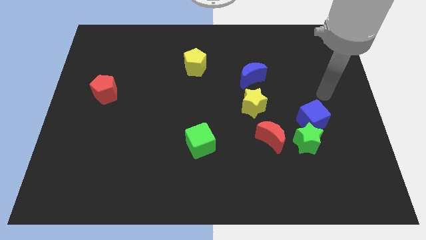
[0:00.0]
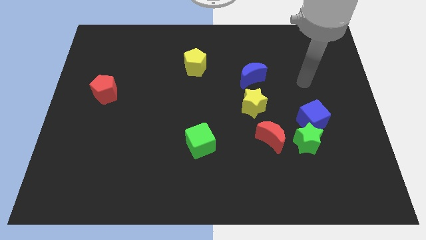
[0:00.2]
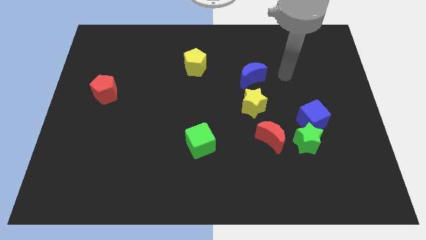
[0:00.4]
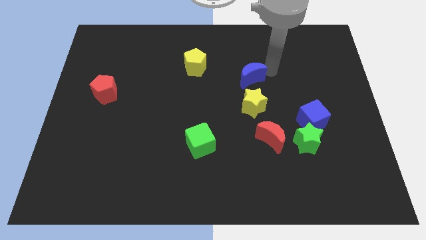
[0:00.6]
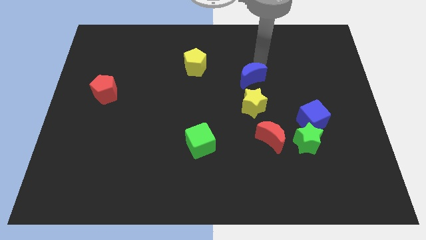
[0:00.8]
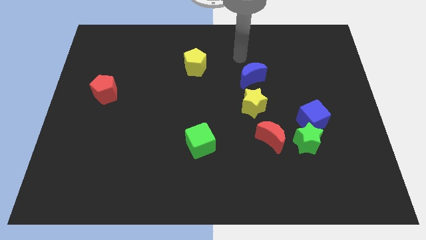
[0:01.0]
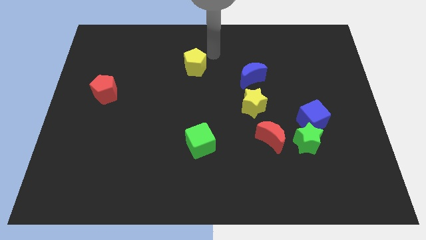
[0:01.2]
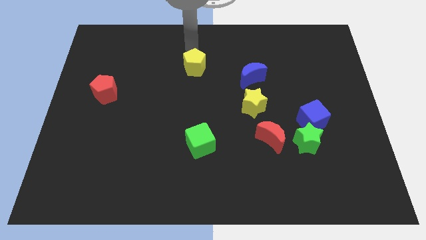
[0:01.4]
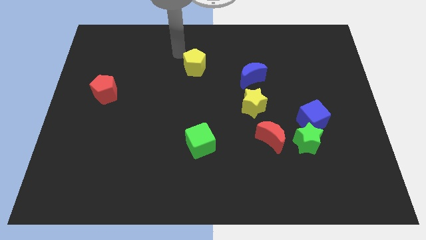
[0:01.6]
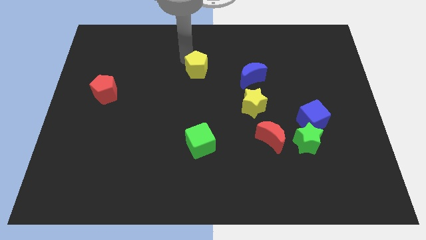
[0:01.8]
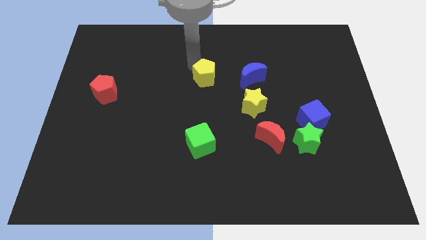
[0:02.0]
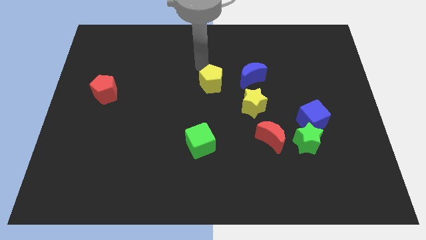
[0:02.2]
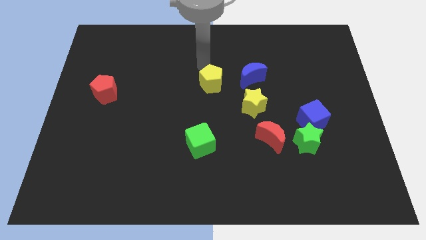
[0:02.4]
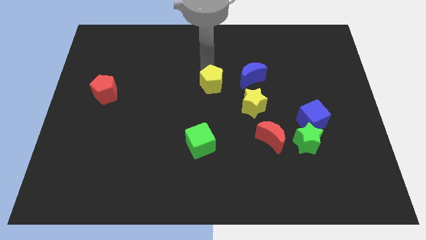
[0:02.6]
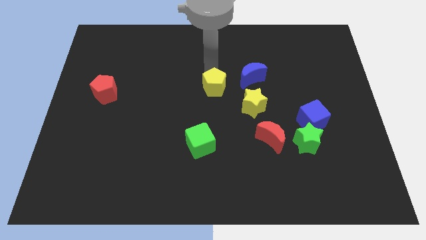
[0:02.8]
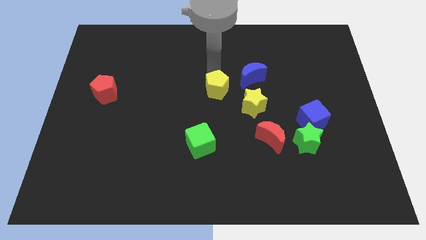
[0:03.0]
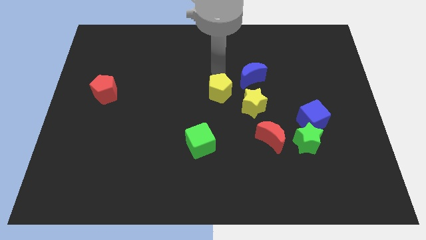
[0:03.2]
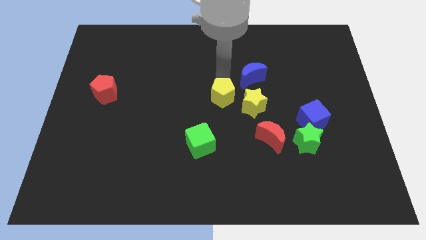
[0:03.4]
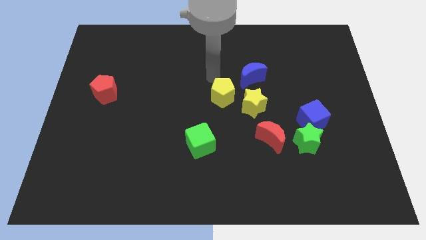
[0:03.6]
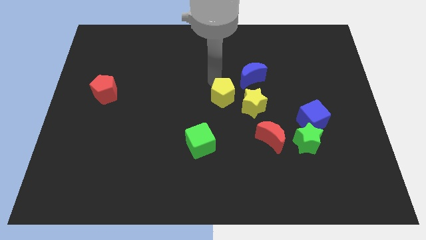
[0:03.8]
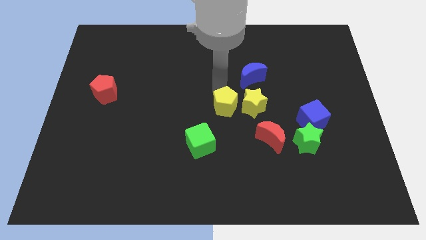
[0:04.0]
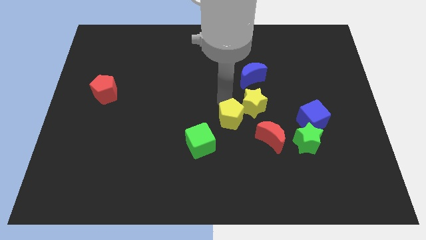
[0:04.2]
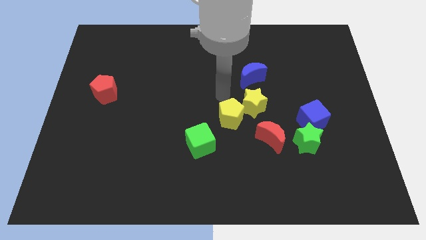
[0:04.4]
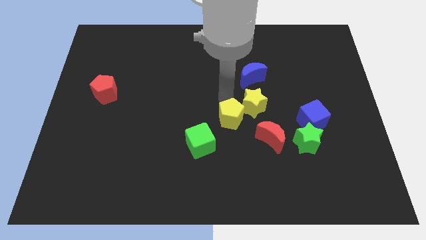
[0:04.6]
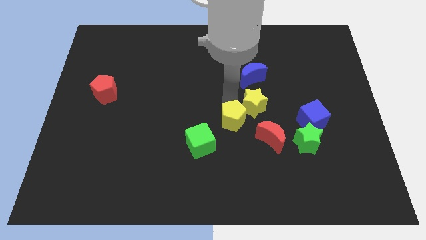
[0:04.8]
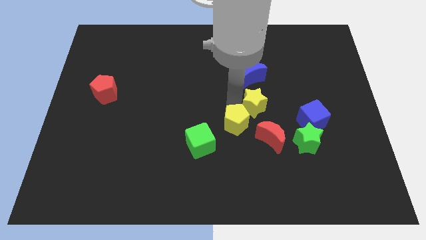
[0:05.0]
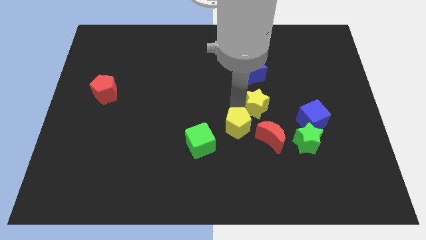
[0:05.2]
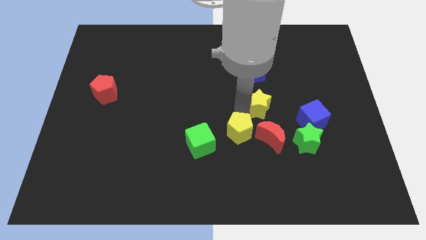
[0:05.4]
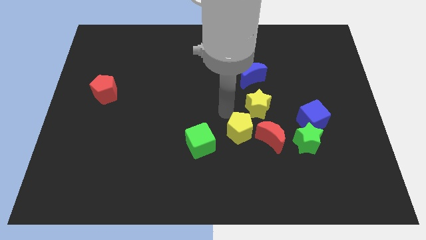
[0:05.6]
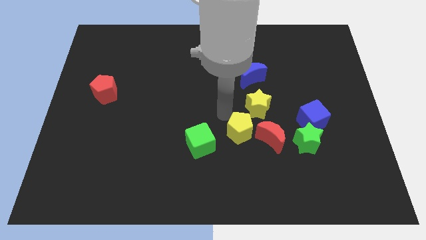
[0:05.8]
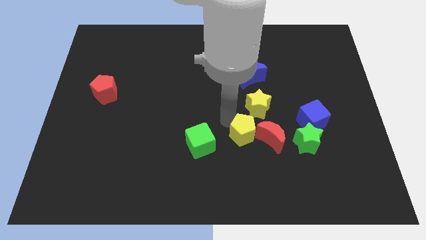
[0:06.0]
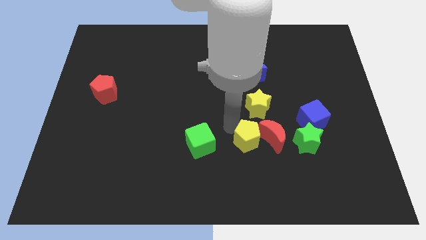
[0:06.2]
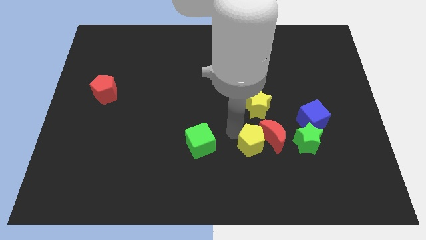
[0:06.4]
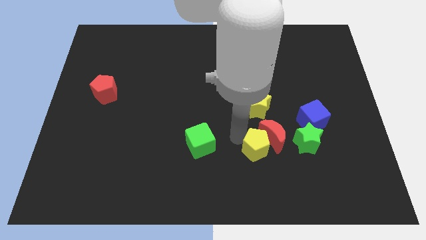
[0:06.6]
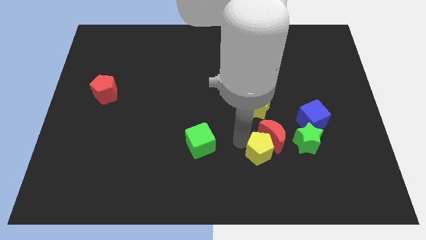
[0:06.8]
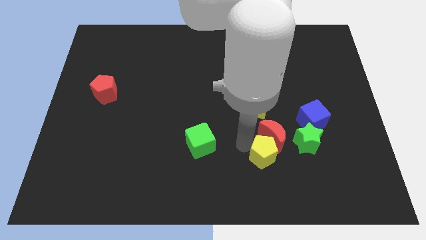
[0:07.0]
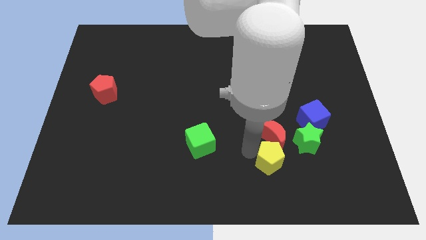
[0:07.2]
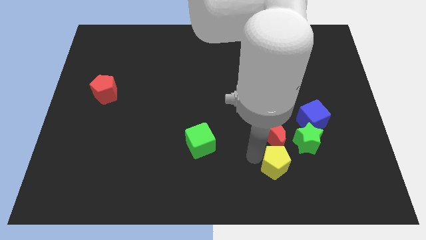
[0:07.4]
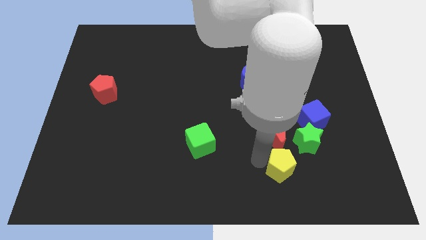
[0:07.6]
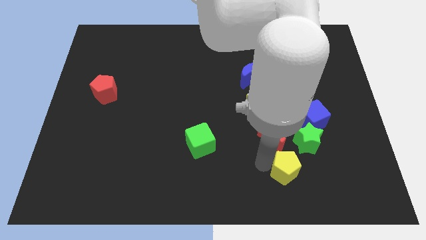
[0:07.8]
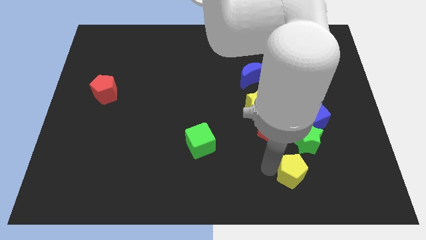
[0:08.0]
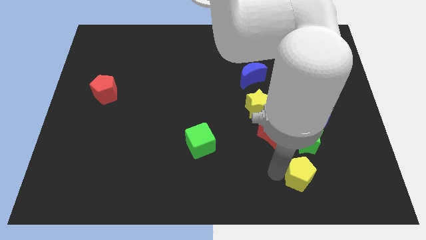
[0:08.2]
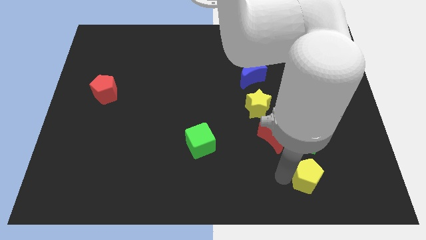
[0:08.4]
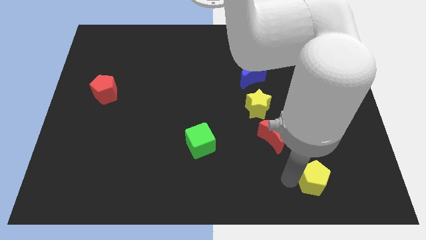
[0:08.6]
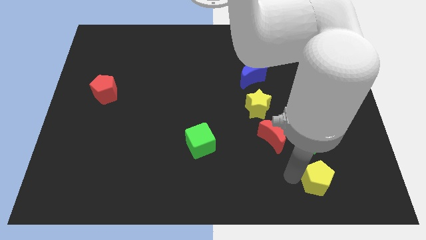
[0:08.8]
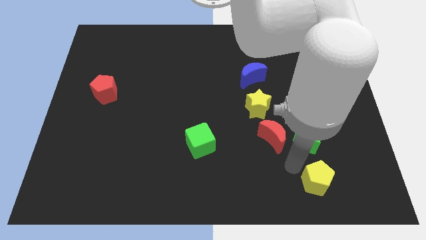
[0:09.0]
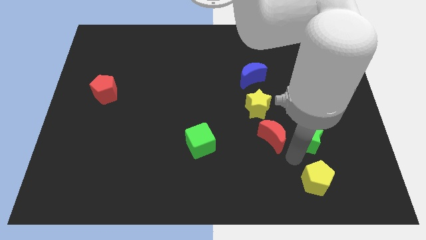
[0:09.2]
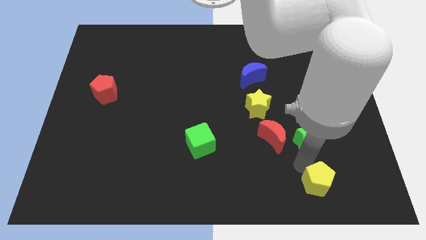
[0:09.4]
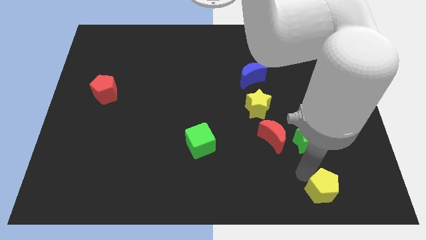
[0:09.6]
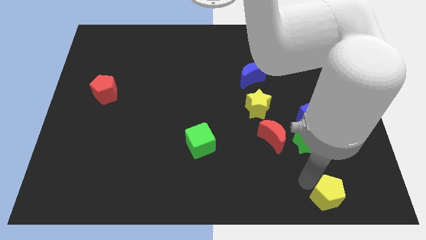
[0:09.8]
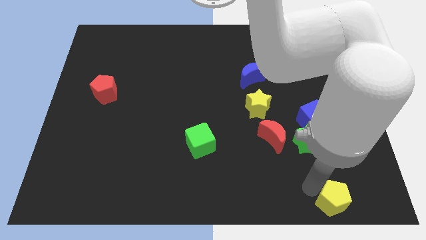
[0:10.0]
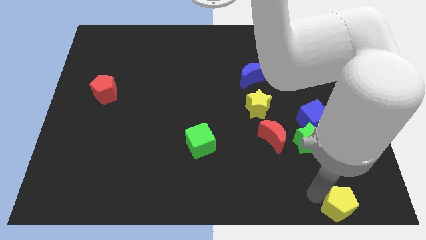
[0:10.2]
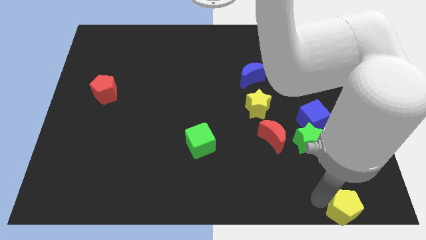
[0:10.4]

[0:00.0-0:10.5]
put the yellow pentagon to the bottom right corner

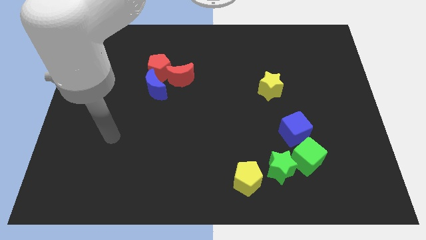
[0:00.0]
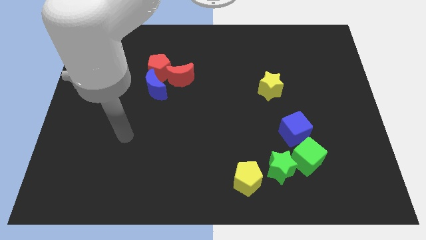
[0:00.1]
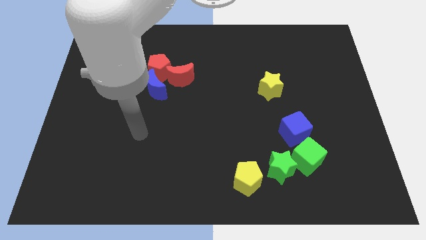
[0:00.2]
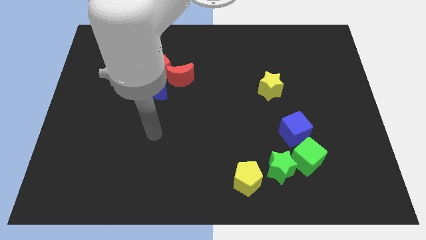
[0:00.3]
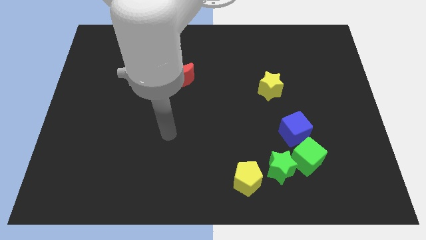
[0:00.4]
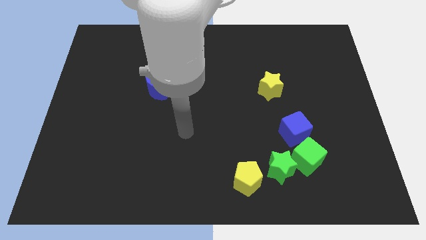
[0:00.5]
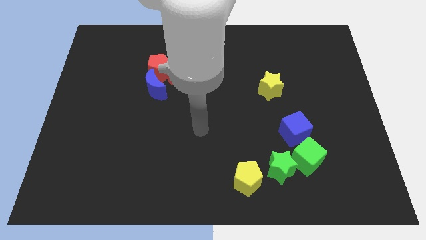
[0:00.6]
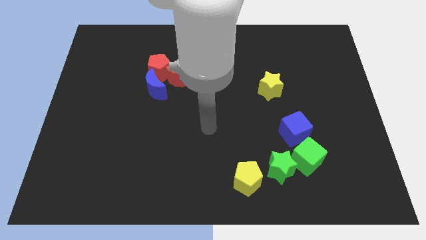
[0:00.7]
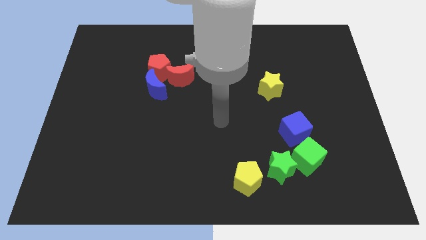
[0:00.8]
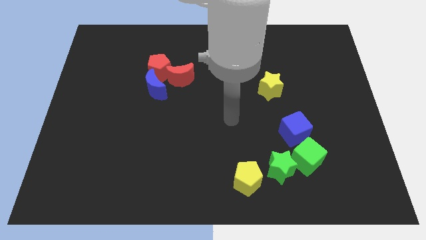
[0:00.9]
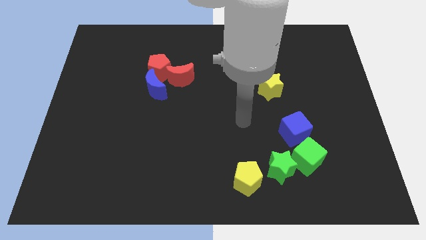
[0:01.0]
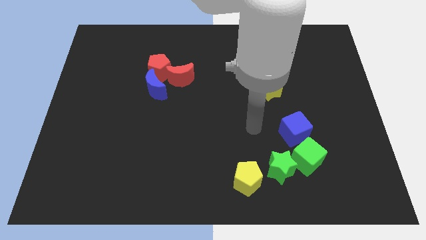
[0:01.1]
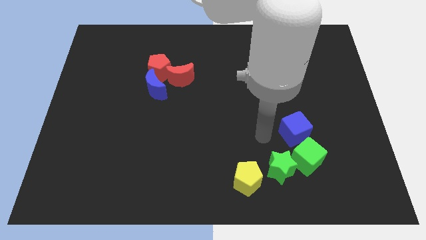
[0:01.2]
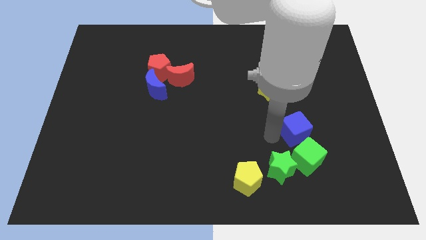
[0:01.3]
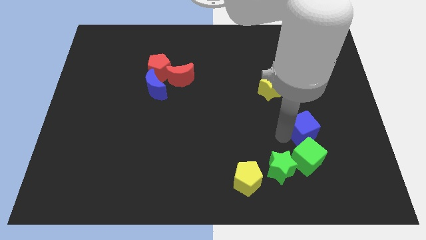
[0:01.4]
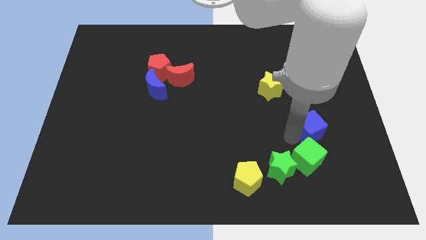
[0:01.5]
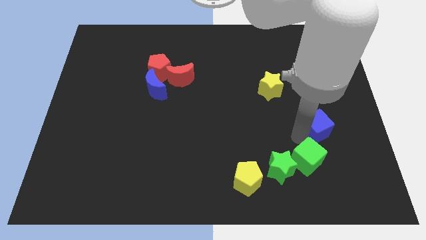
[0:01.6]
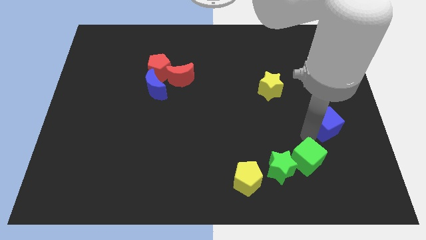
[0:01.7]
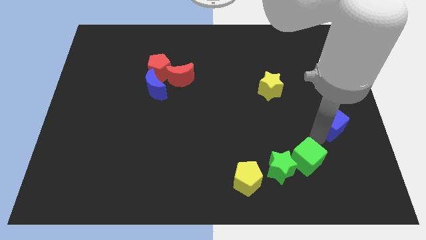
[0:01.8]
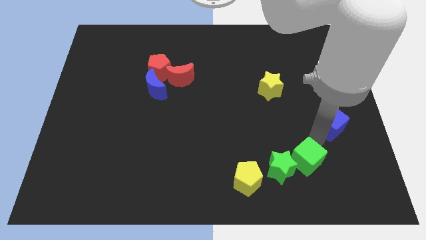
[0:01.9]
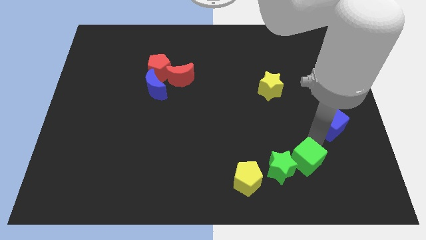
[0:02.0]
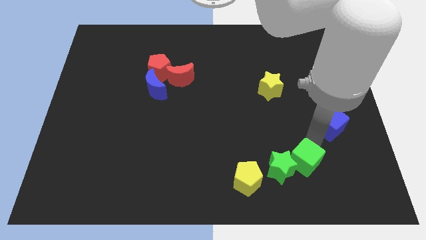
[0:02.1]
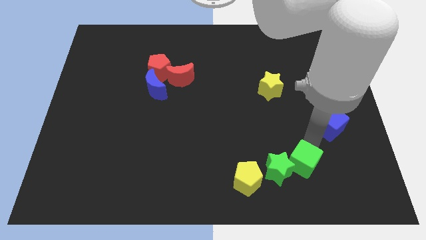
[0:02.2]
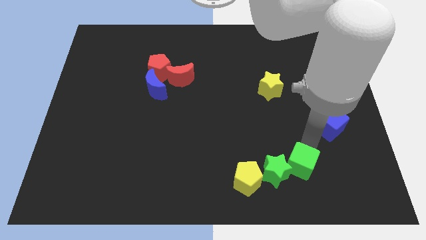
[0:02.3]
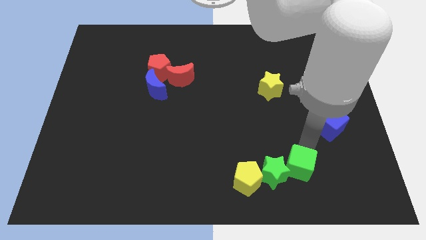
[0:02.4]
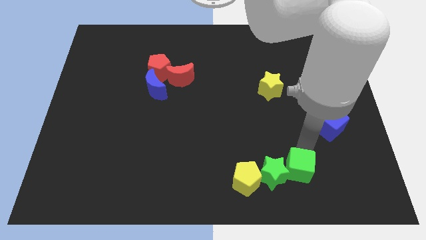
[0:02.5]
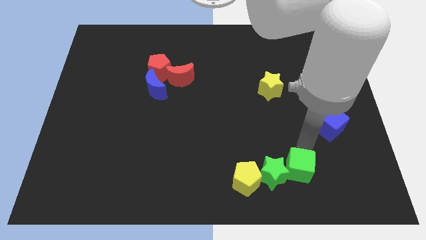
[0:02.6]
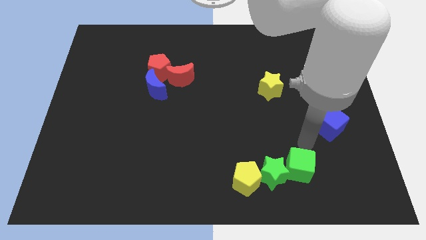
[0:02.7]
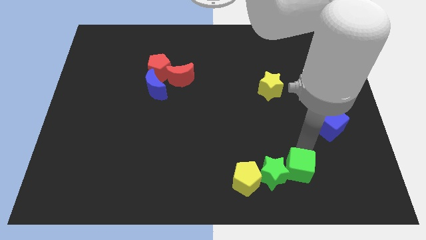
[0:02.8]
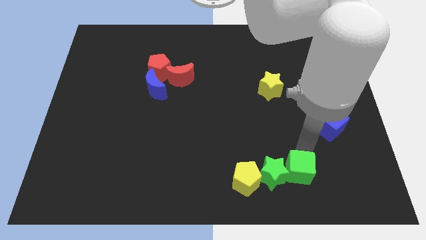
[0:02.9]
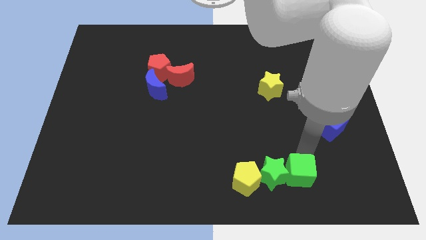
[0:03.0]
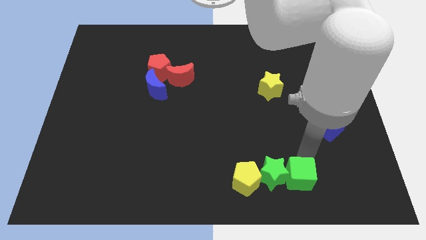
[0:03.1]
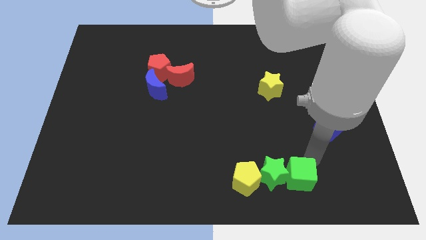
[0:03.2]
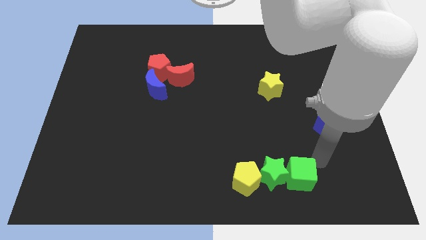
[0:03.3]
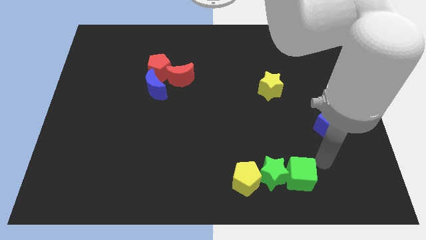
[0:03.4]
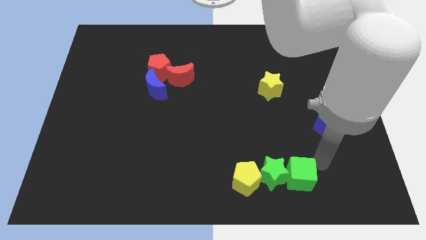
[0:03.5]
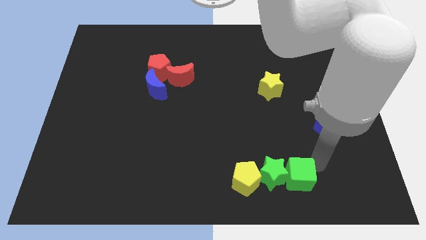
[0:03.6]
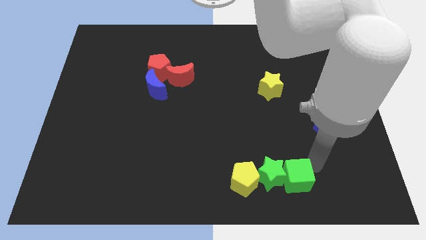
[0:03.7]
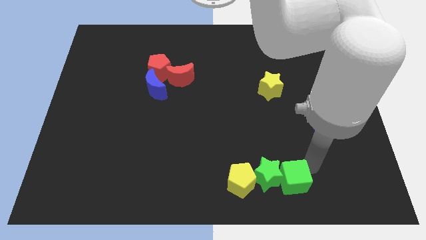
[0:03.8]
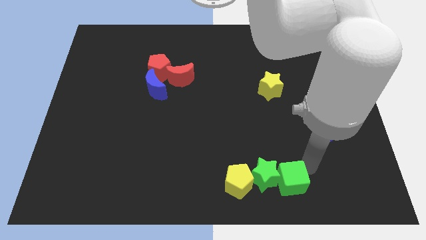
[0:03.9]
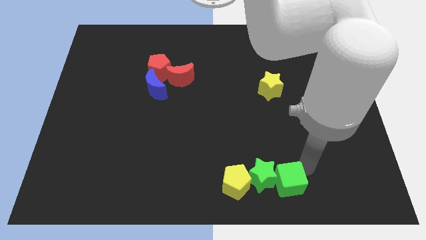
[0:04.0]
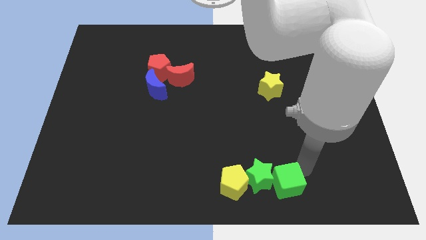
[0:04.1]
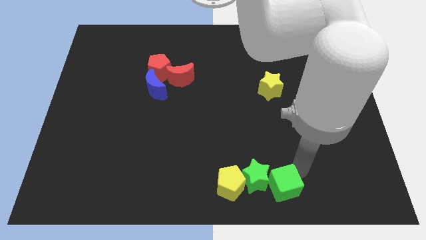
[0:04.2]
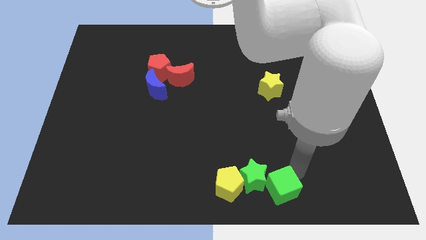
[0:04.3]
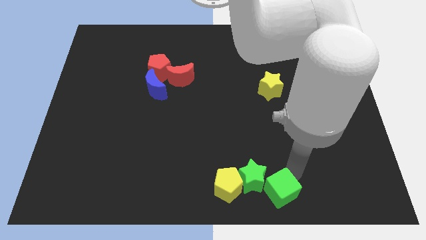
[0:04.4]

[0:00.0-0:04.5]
put the green cube to the bottom
